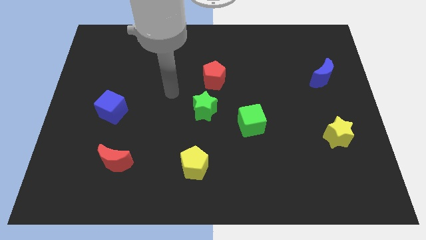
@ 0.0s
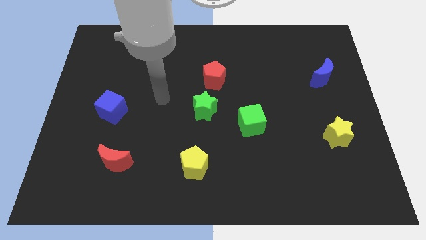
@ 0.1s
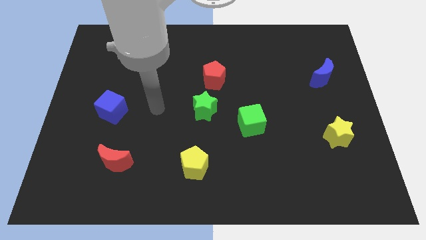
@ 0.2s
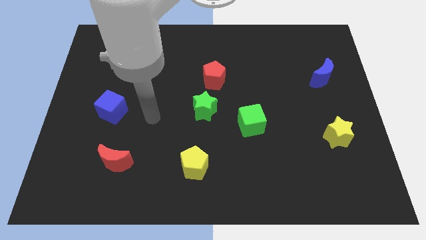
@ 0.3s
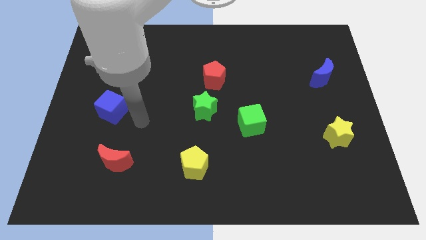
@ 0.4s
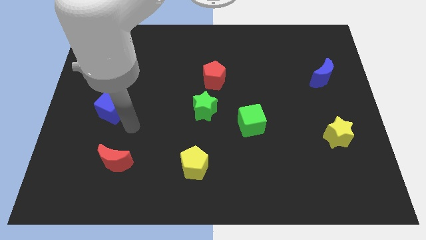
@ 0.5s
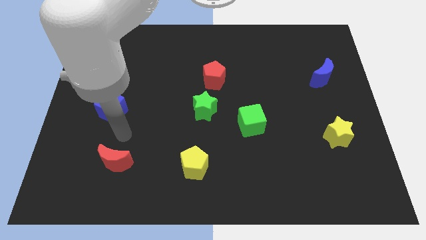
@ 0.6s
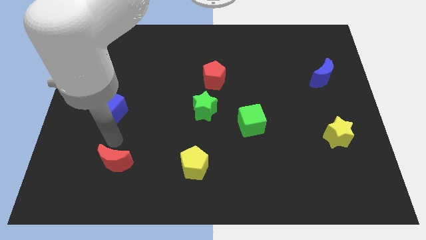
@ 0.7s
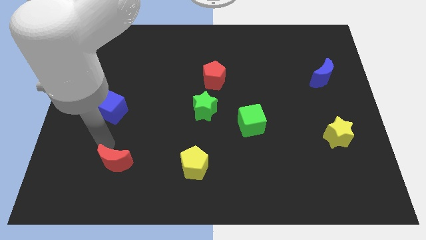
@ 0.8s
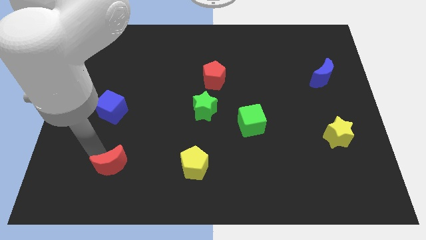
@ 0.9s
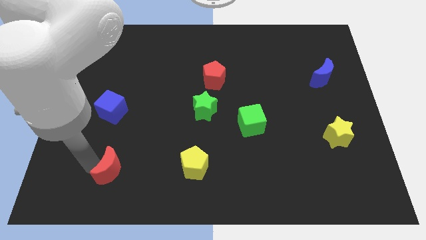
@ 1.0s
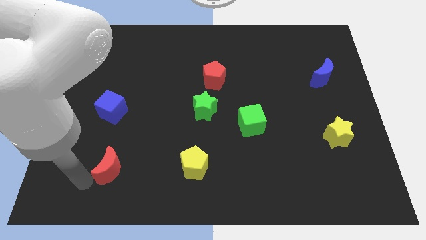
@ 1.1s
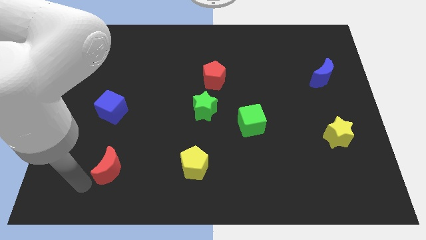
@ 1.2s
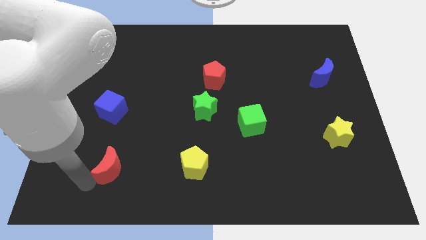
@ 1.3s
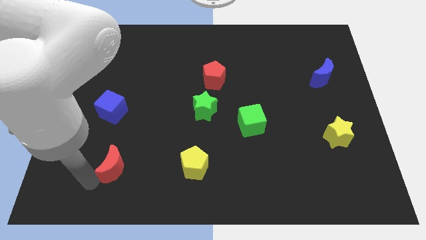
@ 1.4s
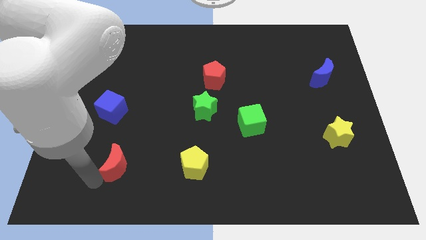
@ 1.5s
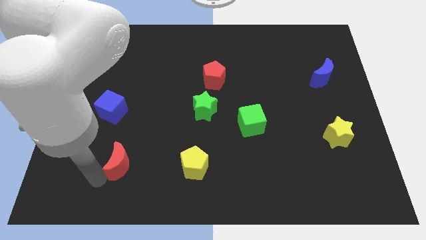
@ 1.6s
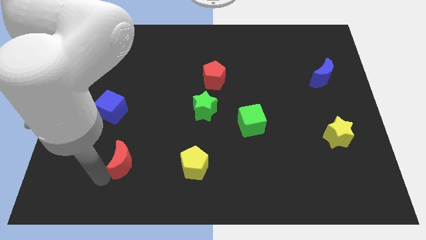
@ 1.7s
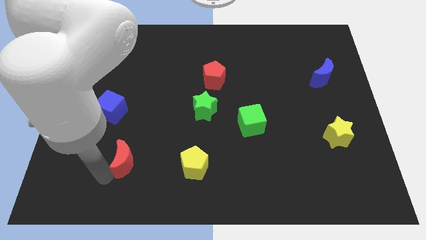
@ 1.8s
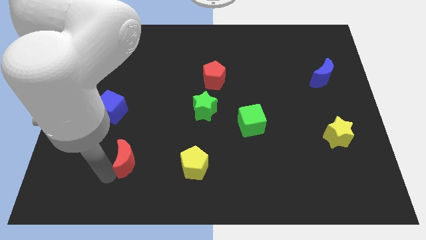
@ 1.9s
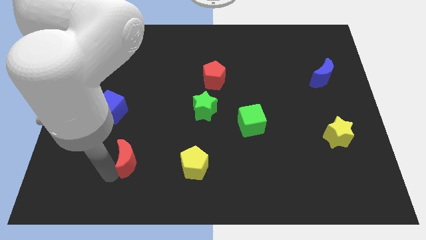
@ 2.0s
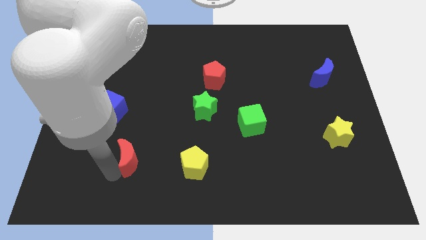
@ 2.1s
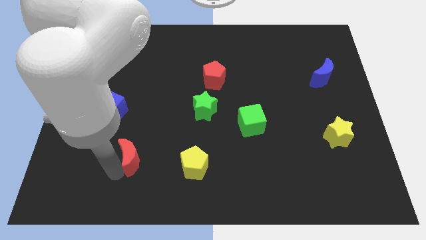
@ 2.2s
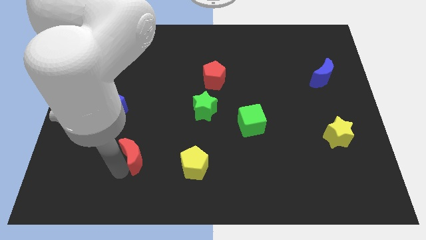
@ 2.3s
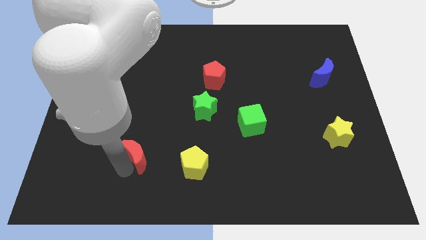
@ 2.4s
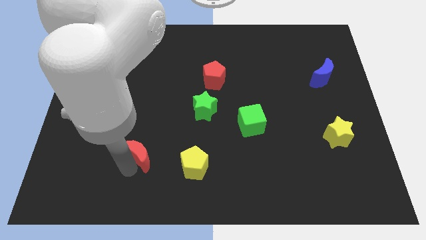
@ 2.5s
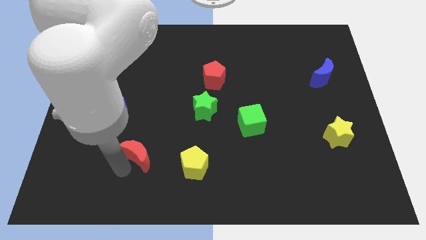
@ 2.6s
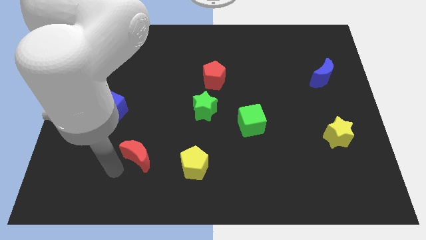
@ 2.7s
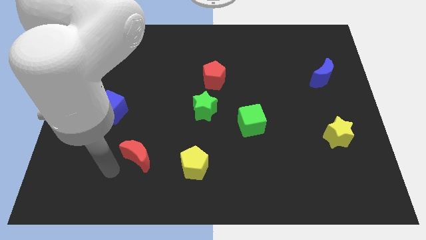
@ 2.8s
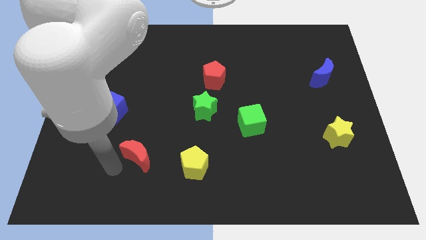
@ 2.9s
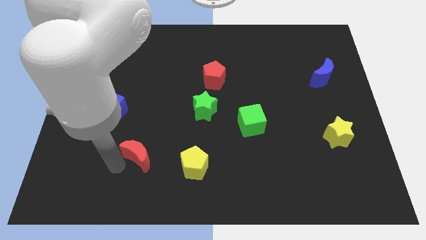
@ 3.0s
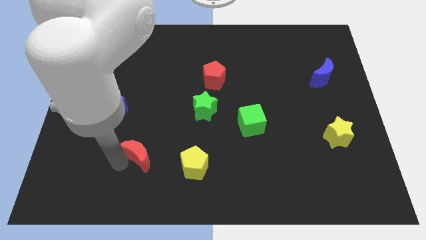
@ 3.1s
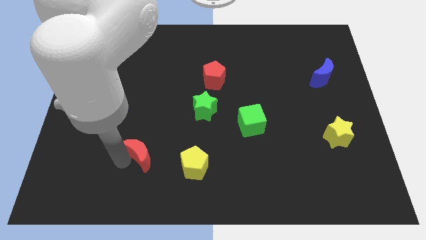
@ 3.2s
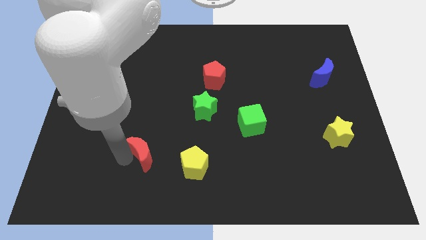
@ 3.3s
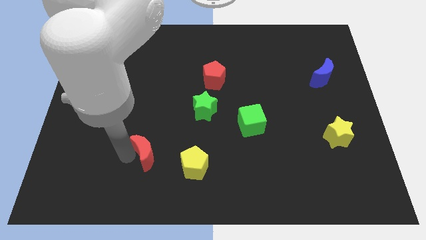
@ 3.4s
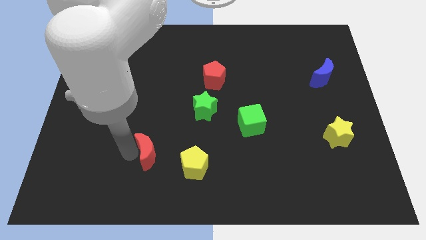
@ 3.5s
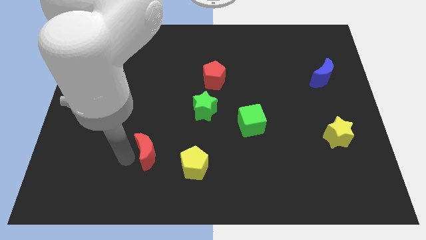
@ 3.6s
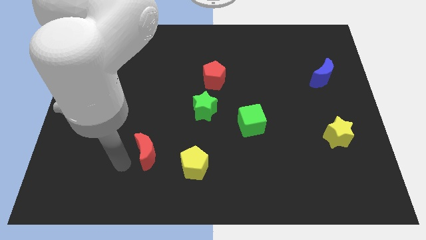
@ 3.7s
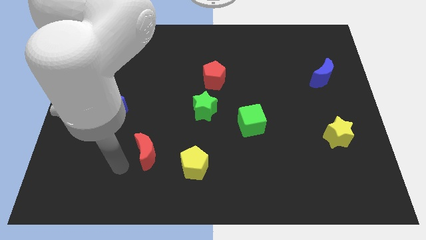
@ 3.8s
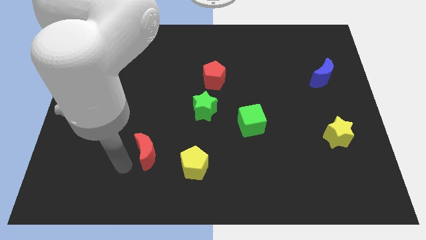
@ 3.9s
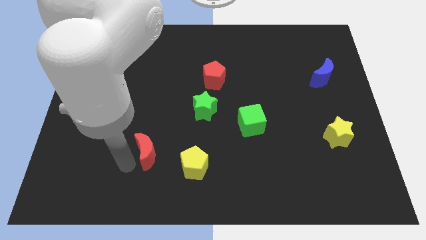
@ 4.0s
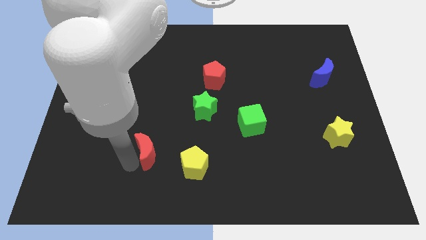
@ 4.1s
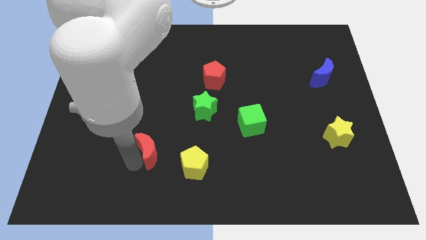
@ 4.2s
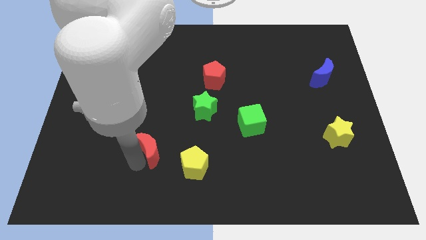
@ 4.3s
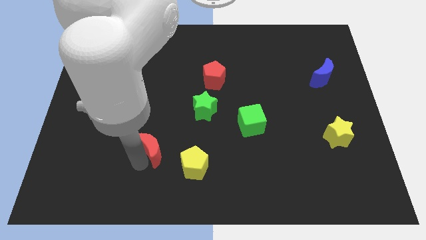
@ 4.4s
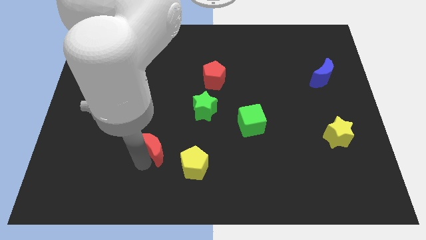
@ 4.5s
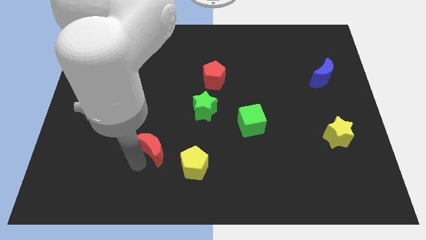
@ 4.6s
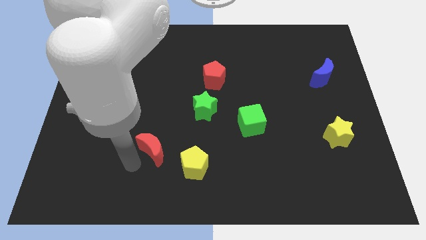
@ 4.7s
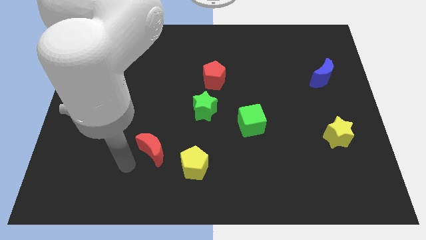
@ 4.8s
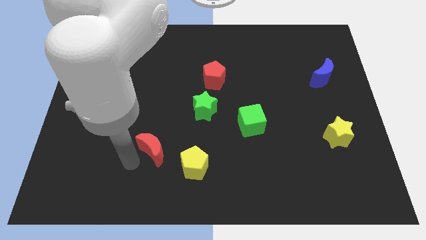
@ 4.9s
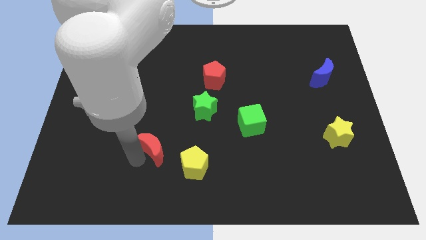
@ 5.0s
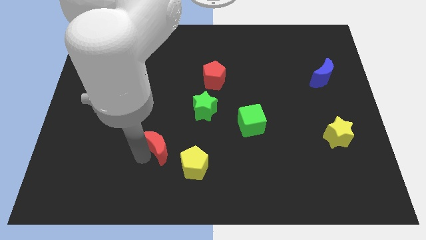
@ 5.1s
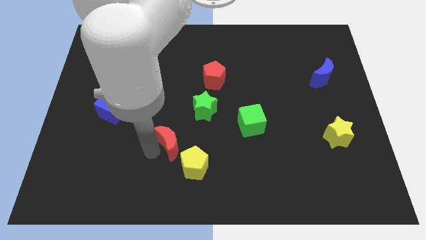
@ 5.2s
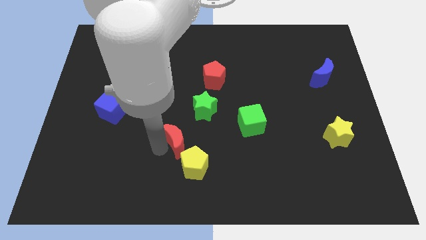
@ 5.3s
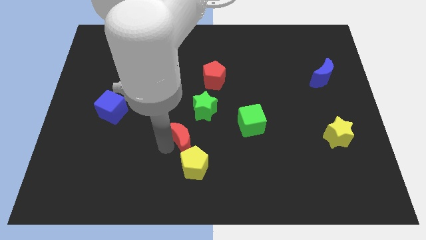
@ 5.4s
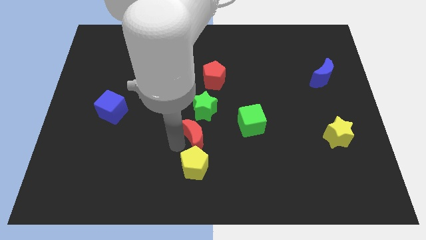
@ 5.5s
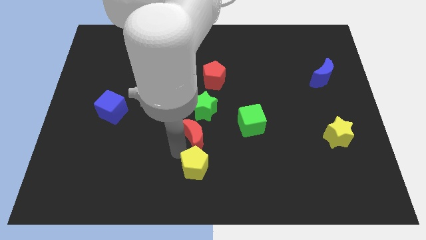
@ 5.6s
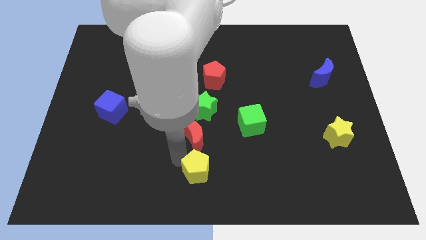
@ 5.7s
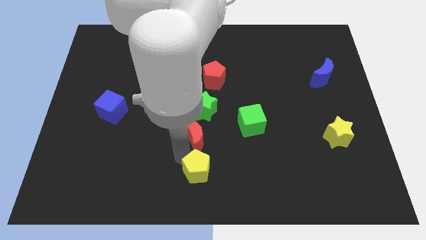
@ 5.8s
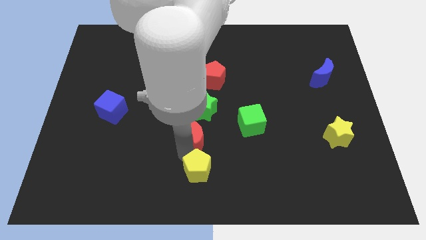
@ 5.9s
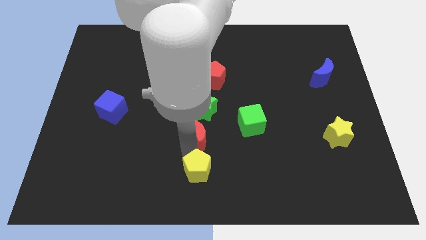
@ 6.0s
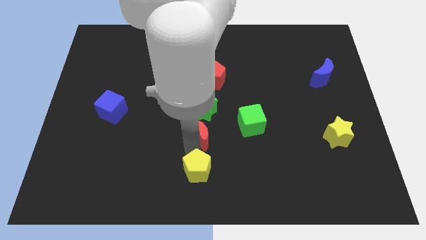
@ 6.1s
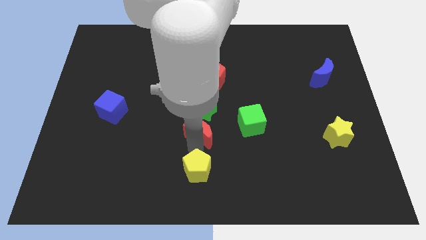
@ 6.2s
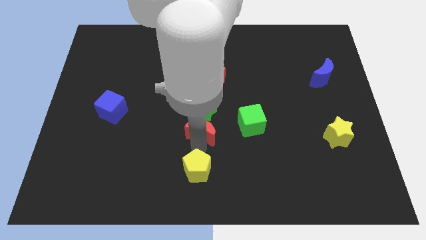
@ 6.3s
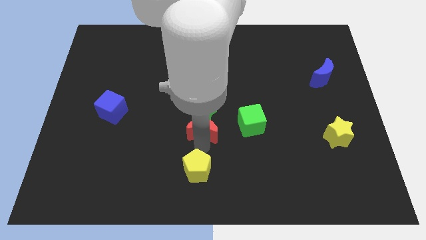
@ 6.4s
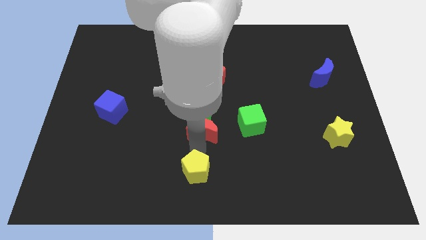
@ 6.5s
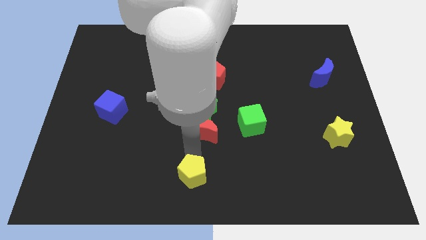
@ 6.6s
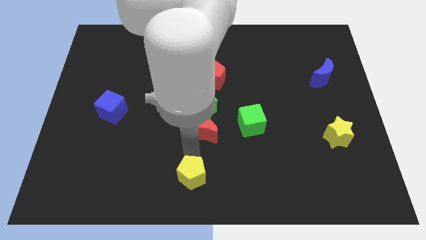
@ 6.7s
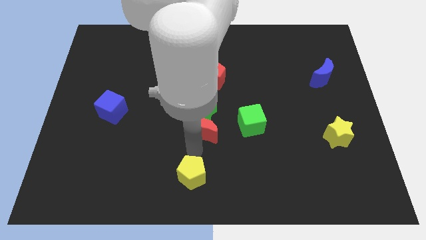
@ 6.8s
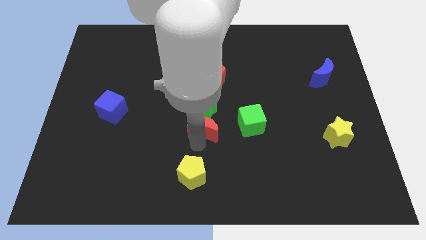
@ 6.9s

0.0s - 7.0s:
move the red moon below the red pentagon

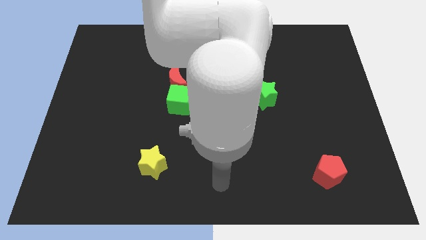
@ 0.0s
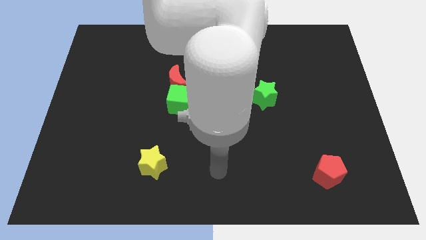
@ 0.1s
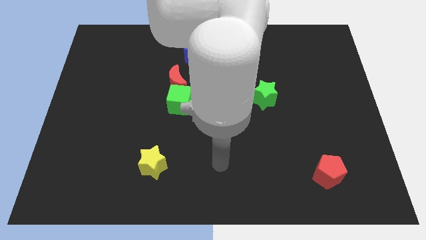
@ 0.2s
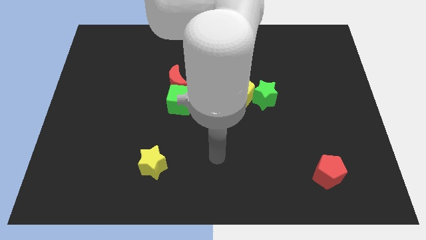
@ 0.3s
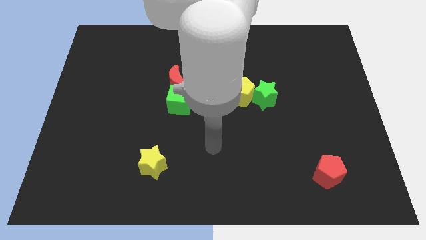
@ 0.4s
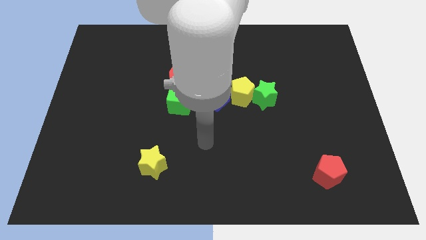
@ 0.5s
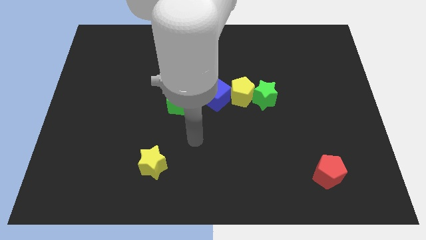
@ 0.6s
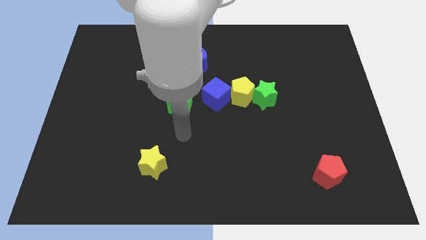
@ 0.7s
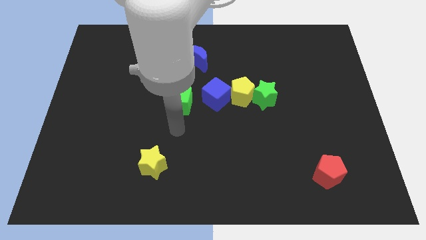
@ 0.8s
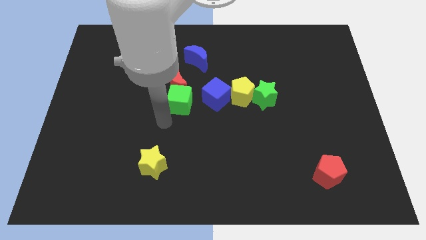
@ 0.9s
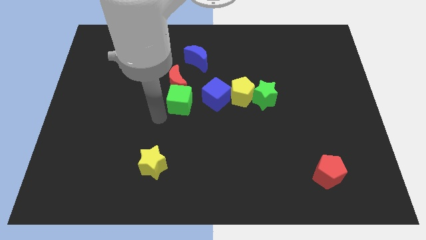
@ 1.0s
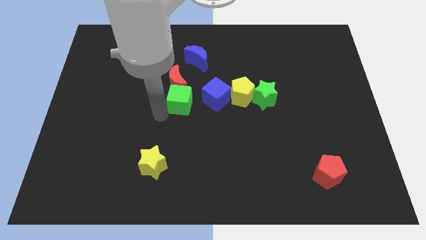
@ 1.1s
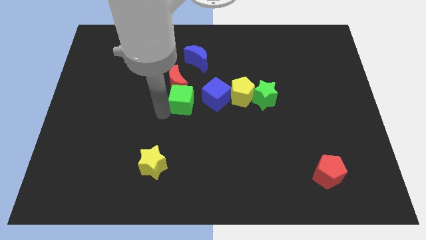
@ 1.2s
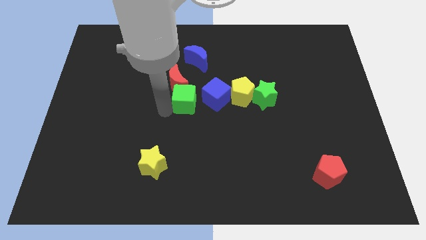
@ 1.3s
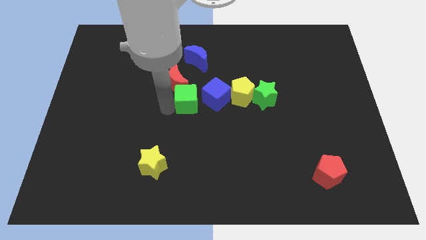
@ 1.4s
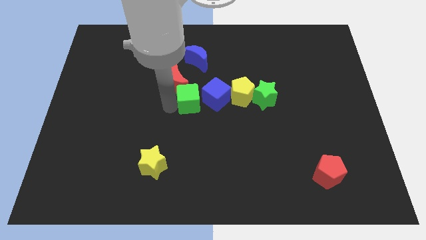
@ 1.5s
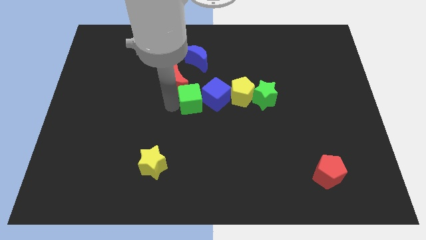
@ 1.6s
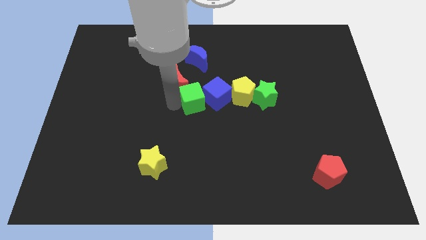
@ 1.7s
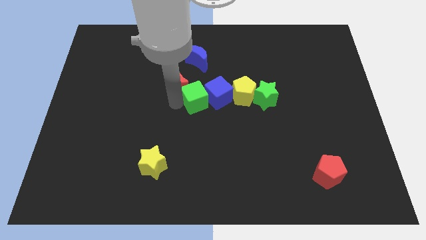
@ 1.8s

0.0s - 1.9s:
put the green cube just right of the red moon
